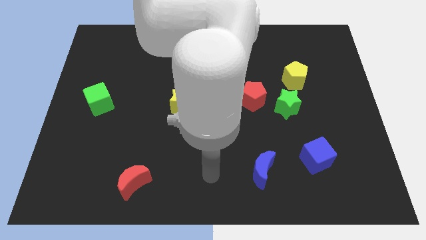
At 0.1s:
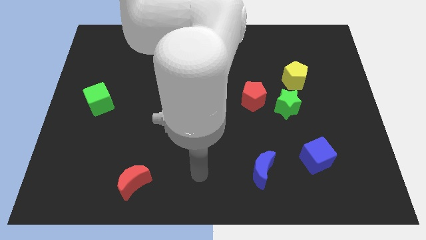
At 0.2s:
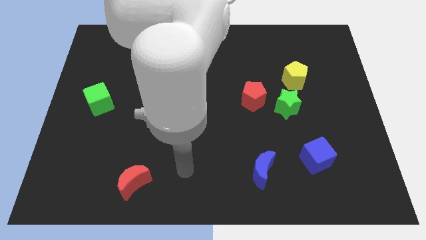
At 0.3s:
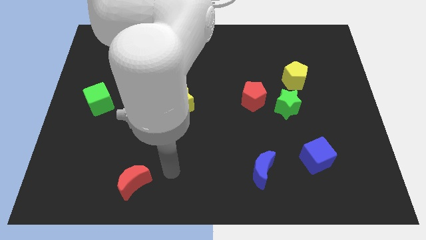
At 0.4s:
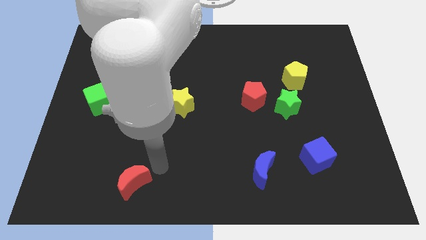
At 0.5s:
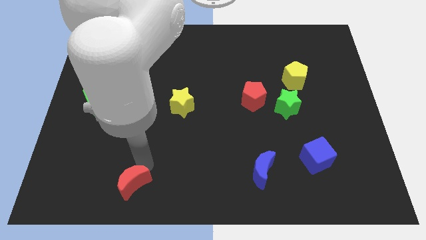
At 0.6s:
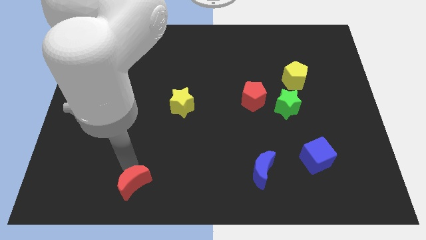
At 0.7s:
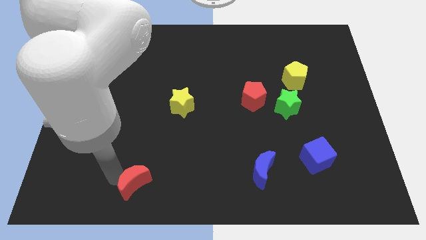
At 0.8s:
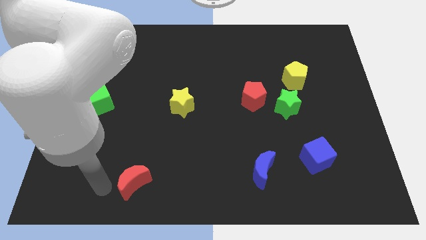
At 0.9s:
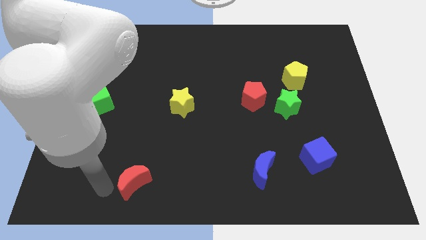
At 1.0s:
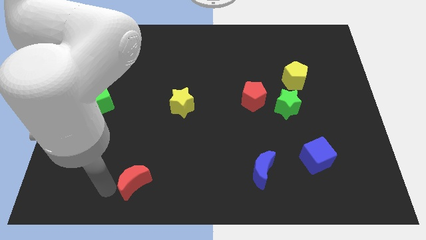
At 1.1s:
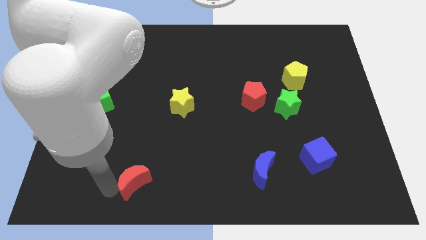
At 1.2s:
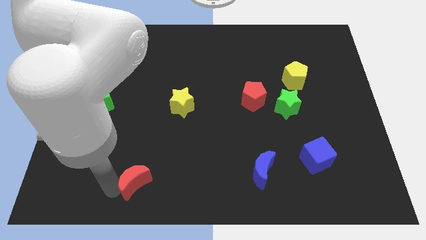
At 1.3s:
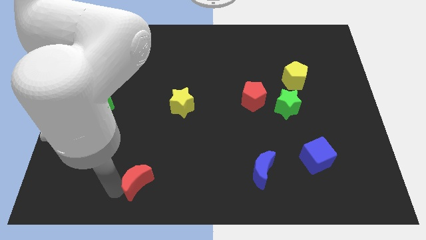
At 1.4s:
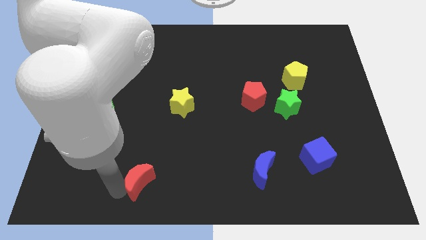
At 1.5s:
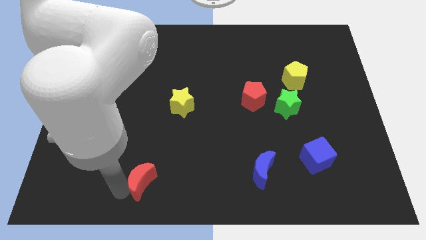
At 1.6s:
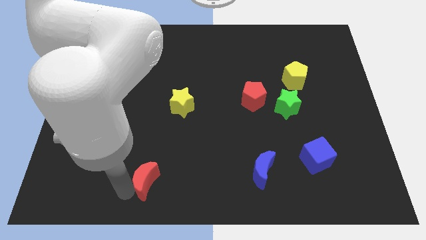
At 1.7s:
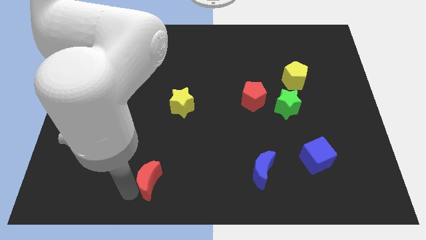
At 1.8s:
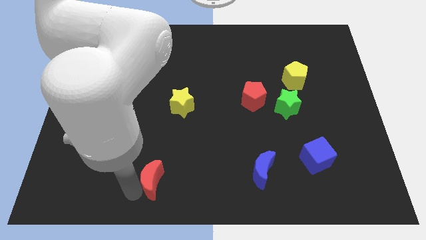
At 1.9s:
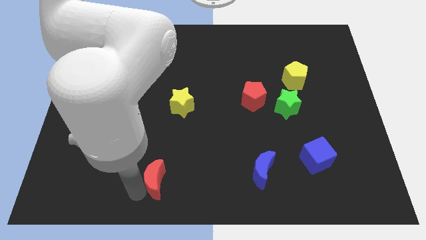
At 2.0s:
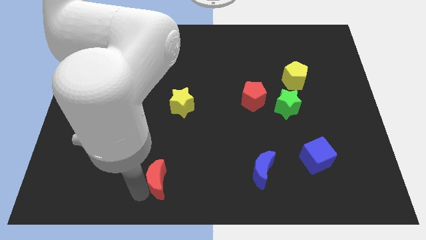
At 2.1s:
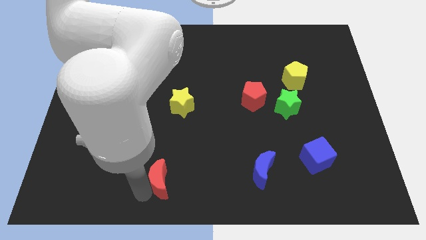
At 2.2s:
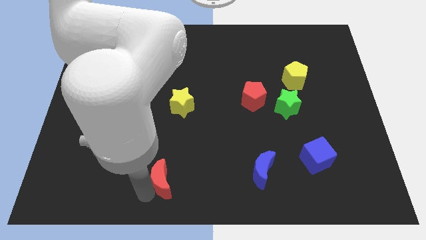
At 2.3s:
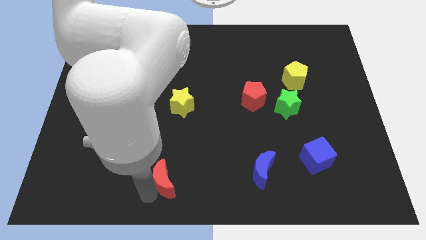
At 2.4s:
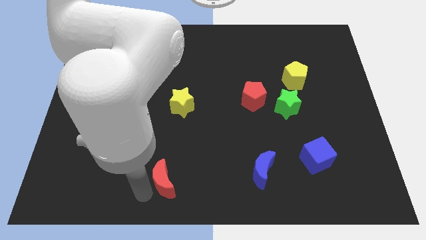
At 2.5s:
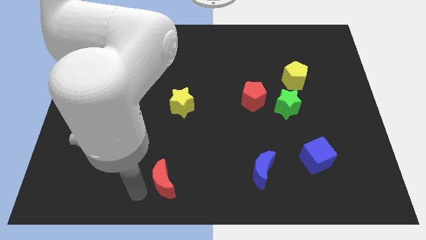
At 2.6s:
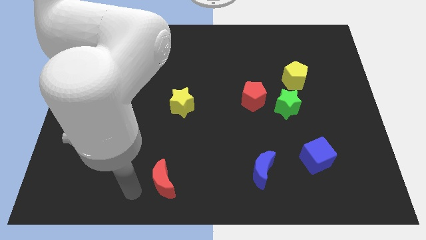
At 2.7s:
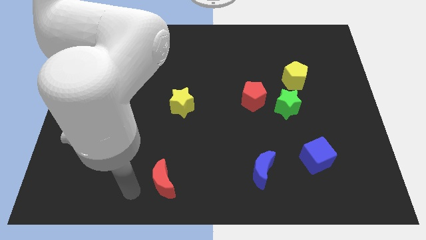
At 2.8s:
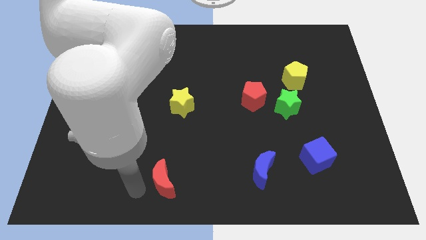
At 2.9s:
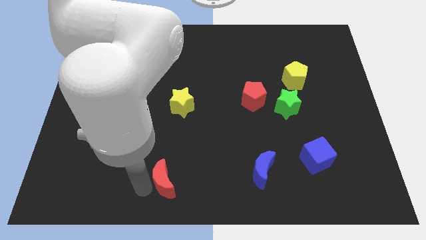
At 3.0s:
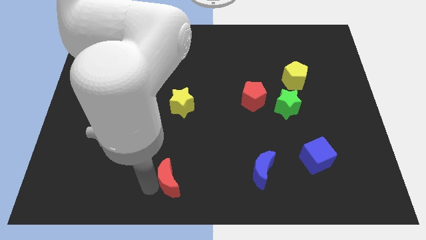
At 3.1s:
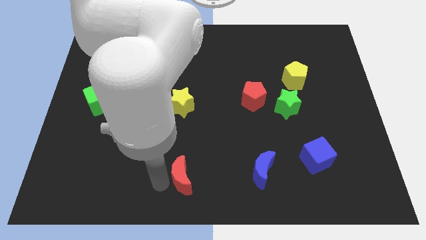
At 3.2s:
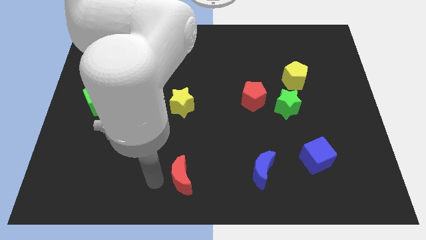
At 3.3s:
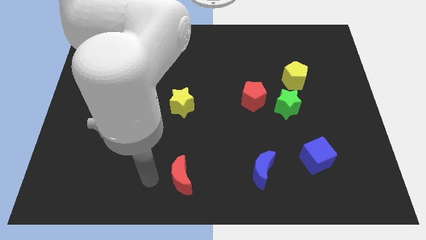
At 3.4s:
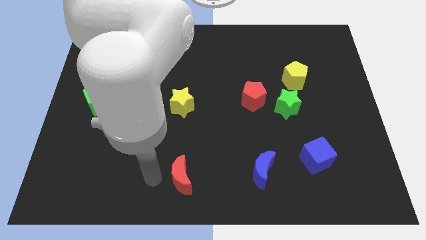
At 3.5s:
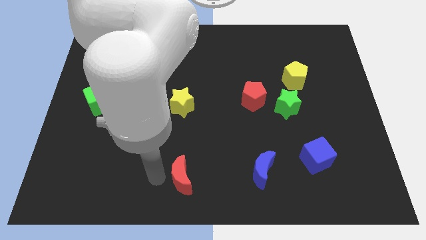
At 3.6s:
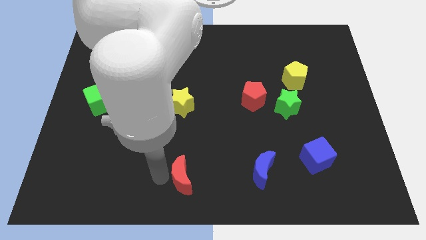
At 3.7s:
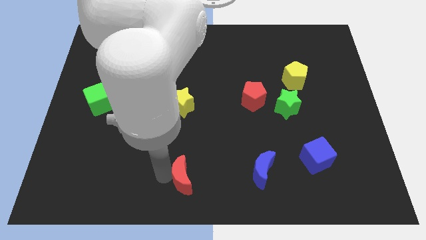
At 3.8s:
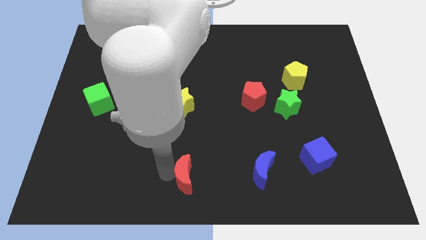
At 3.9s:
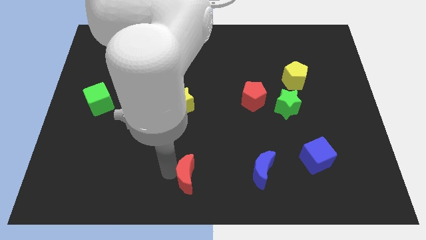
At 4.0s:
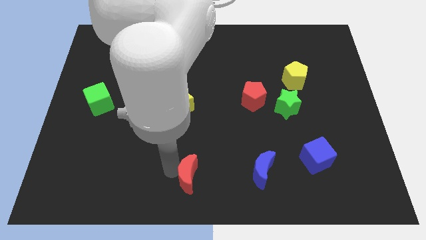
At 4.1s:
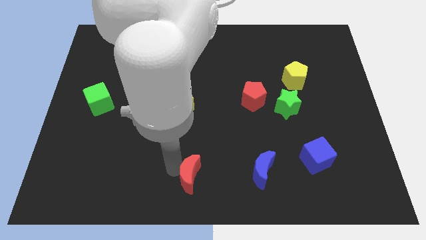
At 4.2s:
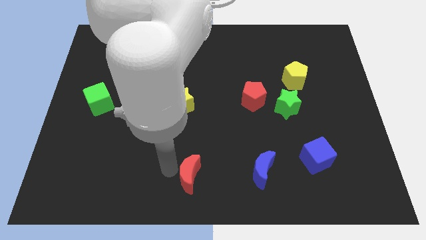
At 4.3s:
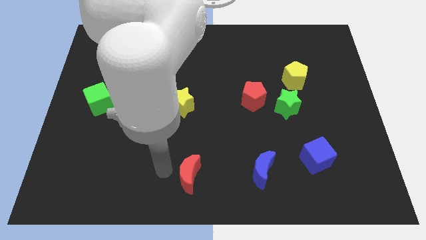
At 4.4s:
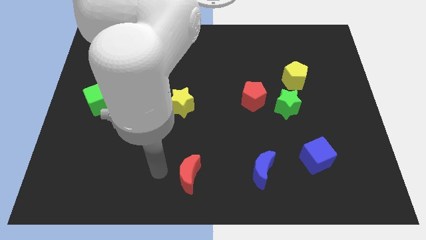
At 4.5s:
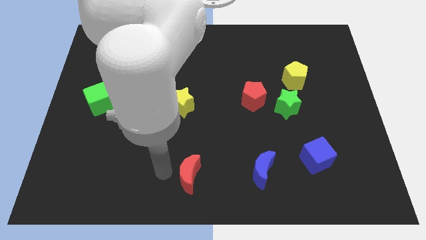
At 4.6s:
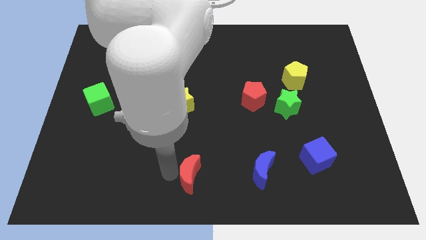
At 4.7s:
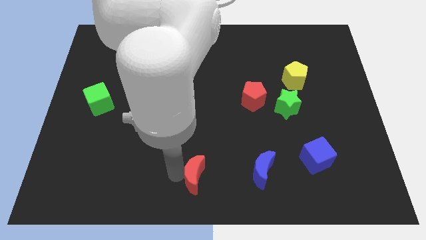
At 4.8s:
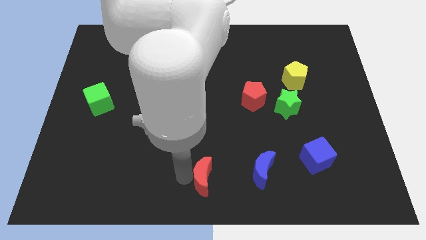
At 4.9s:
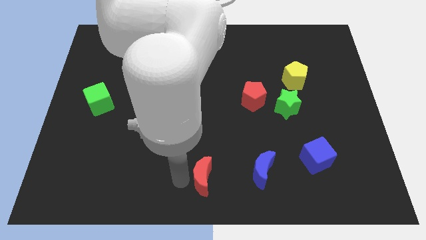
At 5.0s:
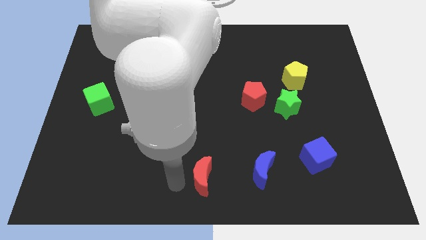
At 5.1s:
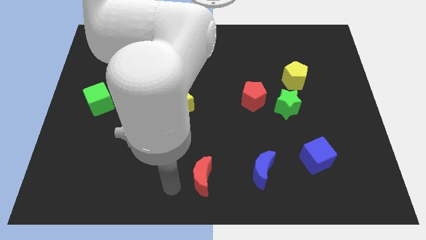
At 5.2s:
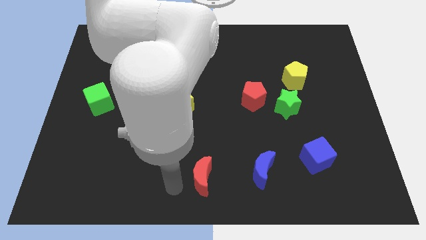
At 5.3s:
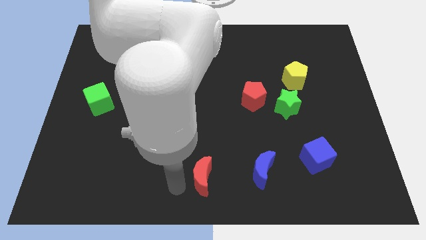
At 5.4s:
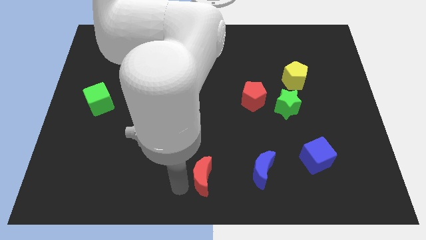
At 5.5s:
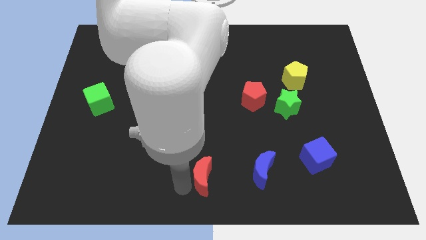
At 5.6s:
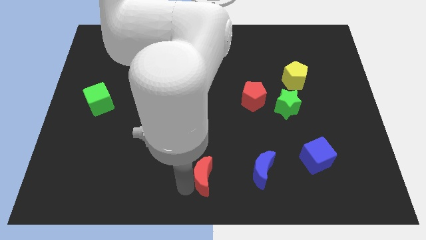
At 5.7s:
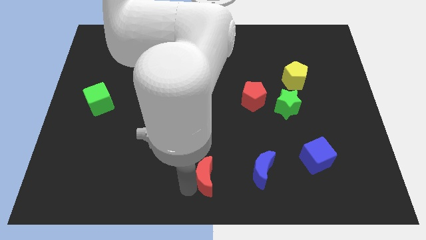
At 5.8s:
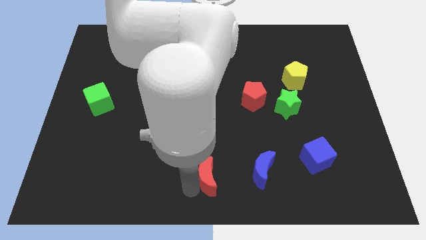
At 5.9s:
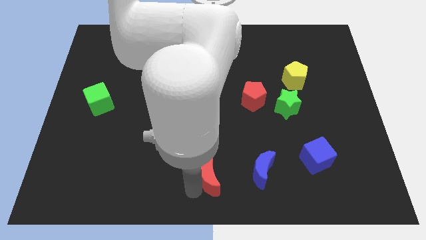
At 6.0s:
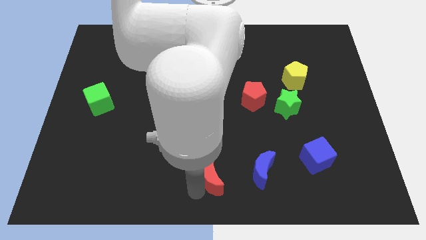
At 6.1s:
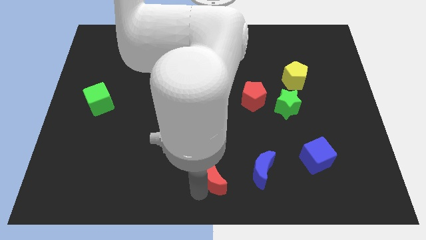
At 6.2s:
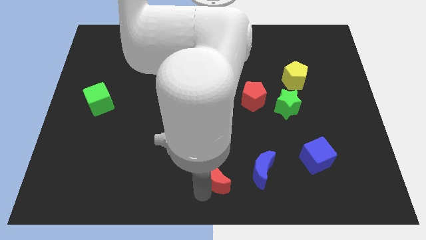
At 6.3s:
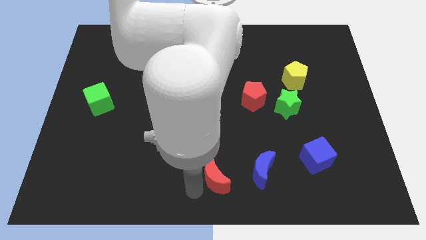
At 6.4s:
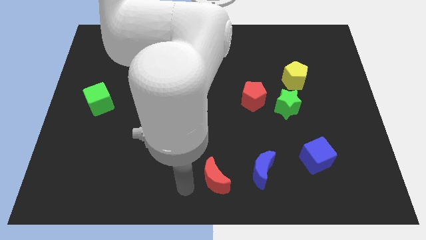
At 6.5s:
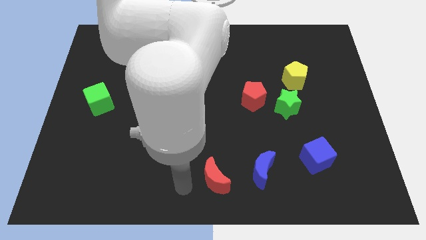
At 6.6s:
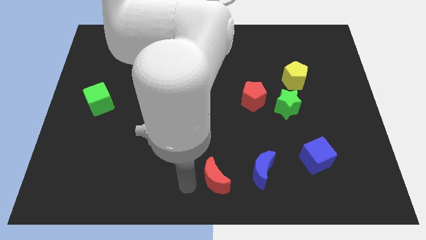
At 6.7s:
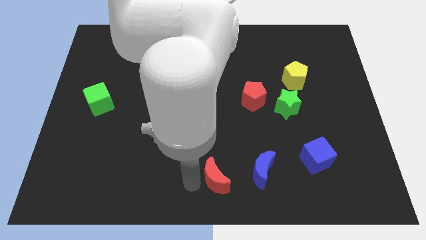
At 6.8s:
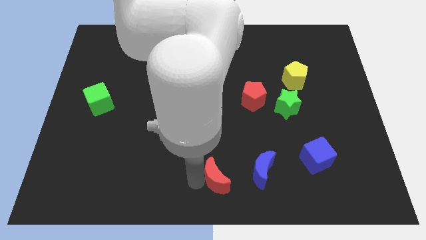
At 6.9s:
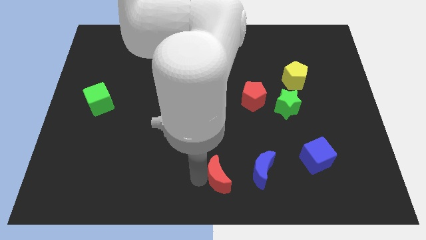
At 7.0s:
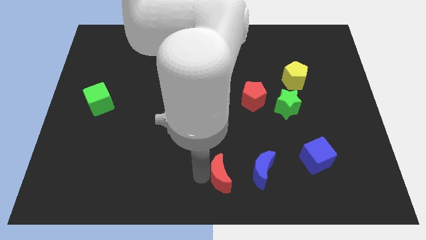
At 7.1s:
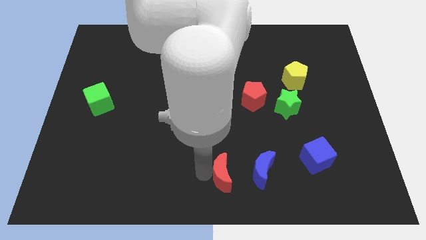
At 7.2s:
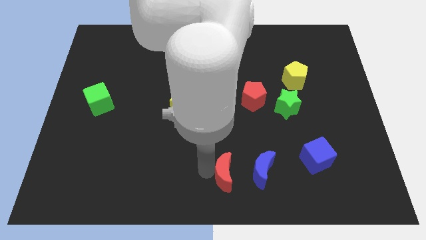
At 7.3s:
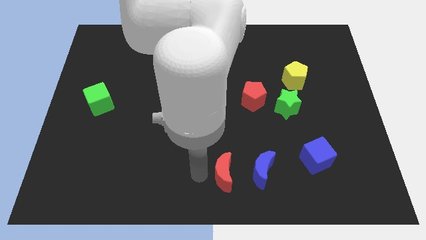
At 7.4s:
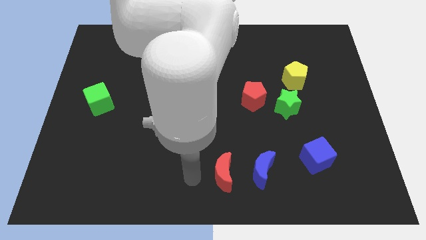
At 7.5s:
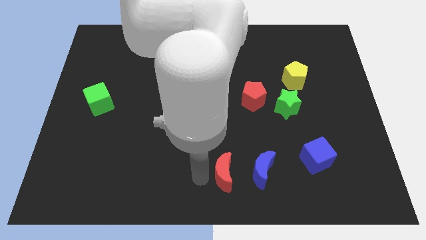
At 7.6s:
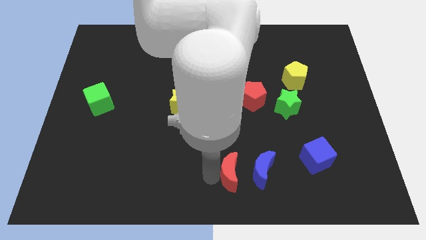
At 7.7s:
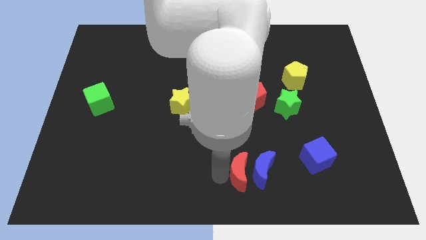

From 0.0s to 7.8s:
put the red moon close to the blue moon

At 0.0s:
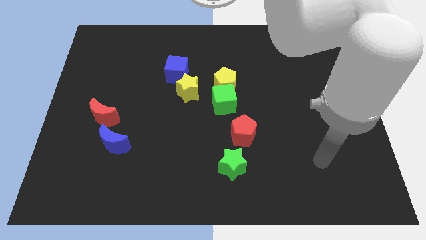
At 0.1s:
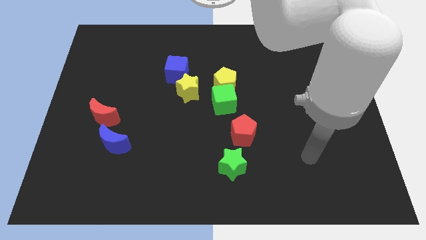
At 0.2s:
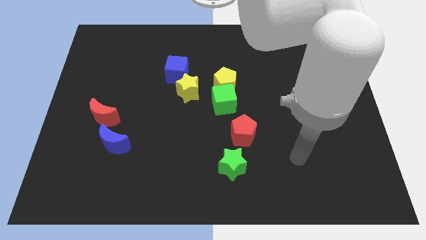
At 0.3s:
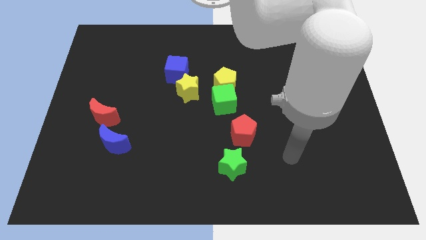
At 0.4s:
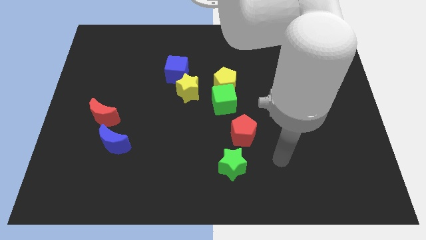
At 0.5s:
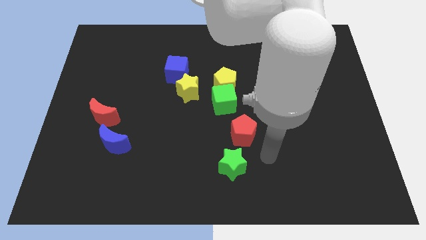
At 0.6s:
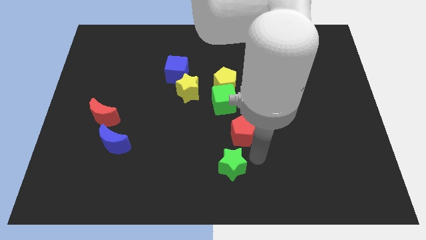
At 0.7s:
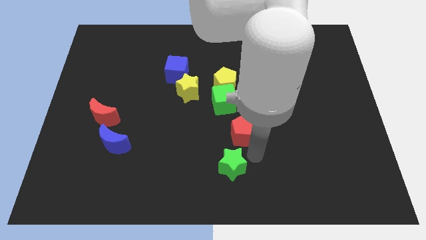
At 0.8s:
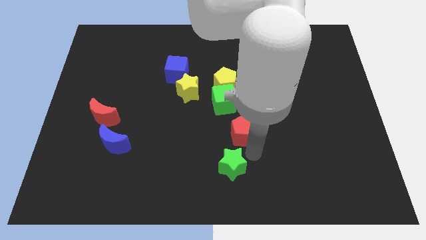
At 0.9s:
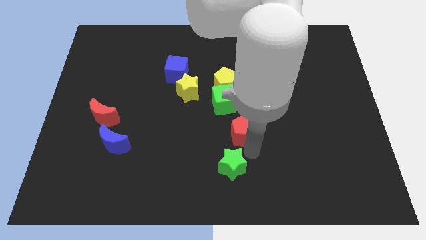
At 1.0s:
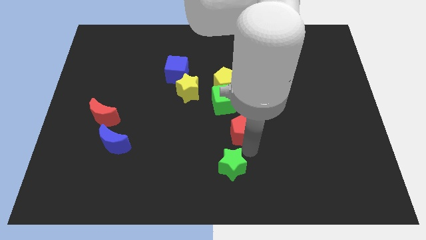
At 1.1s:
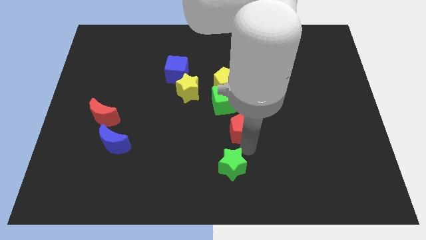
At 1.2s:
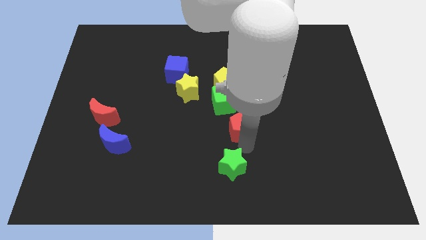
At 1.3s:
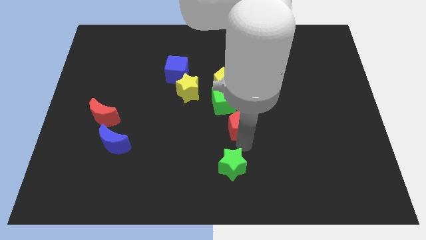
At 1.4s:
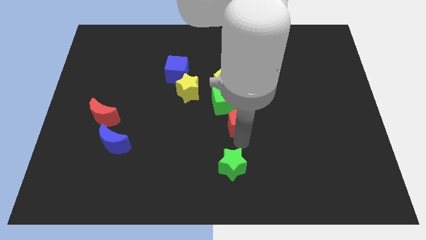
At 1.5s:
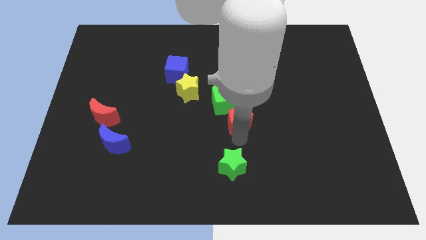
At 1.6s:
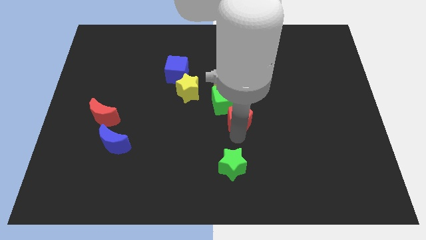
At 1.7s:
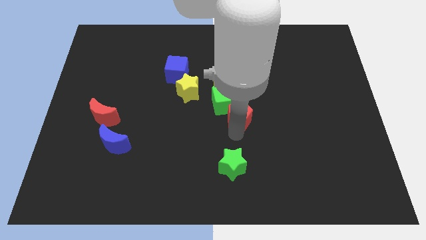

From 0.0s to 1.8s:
put the red pentagon next to the green cube
